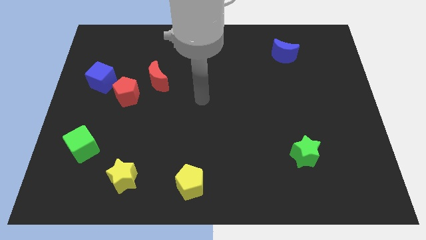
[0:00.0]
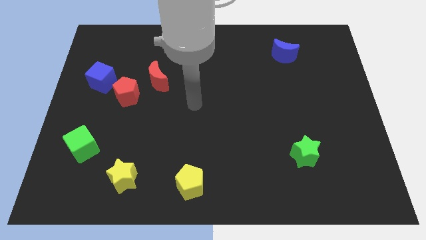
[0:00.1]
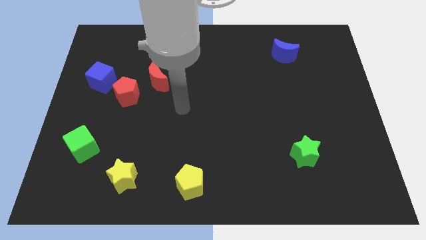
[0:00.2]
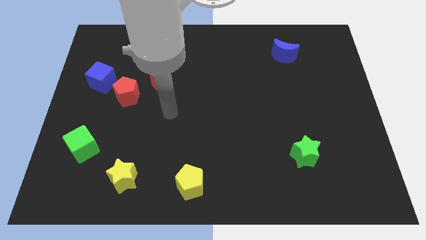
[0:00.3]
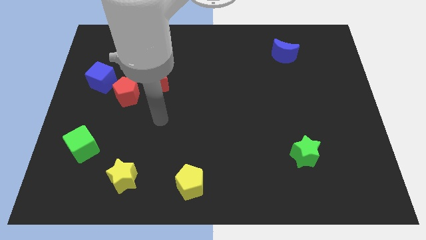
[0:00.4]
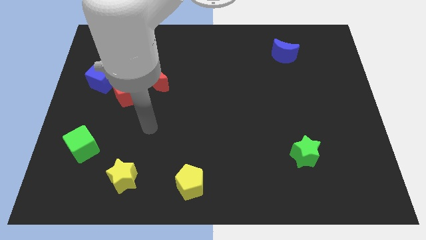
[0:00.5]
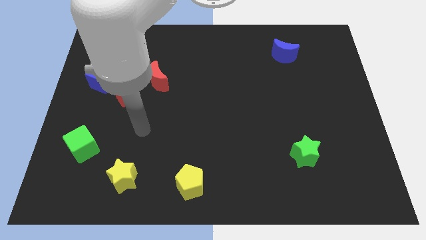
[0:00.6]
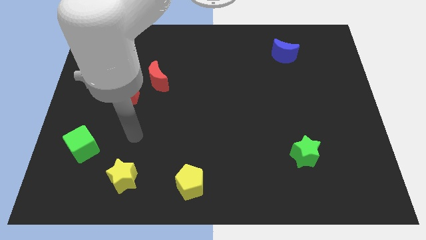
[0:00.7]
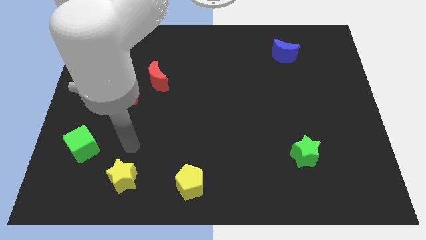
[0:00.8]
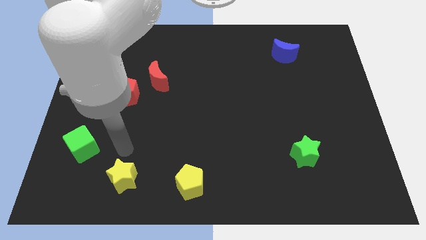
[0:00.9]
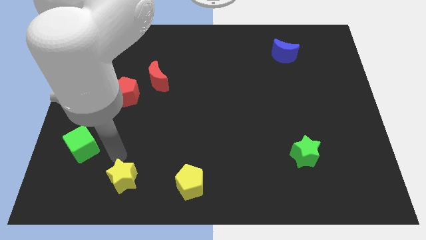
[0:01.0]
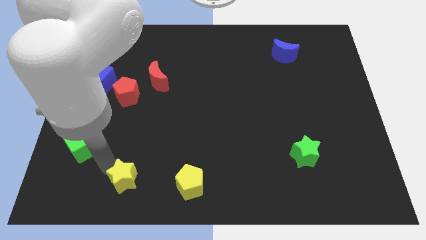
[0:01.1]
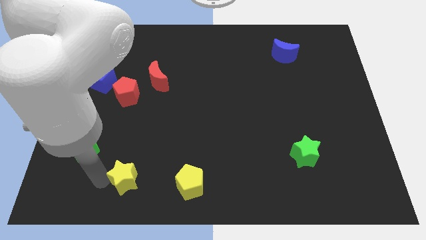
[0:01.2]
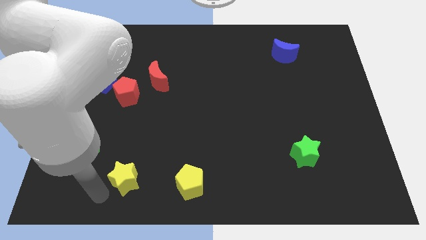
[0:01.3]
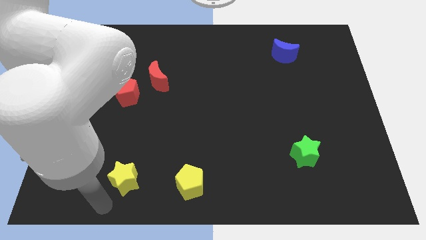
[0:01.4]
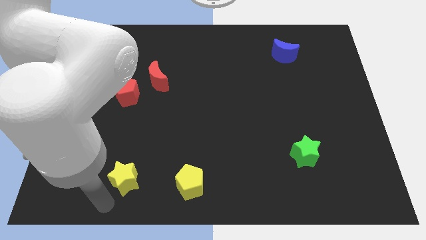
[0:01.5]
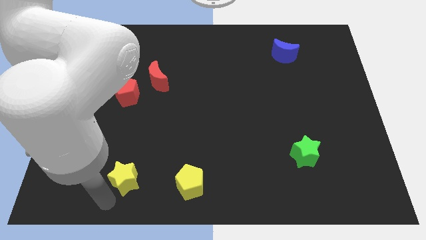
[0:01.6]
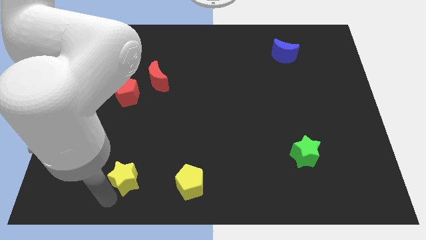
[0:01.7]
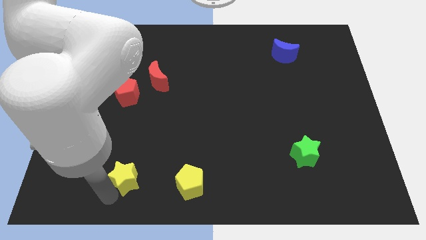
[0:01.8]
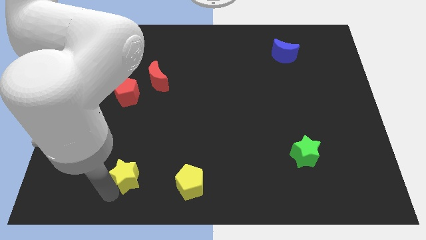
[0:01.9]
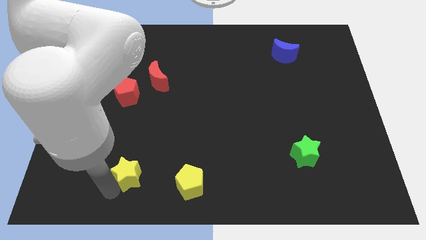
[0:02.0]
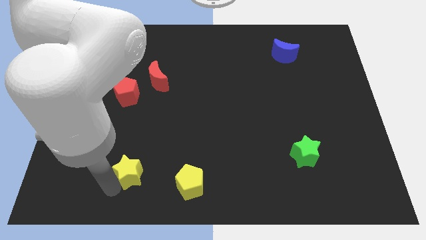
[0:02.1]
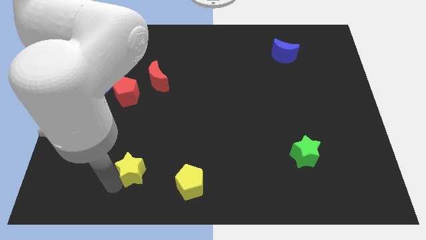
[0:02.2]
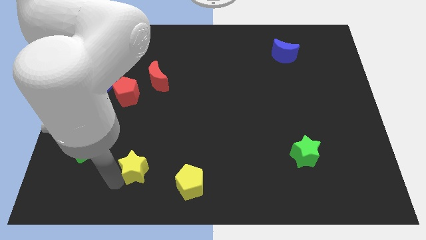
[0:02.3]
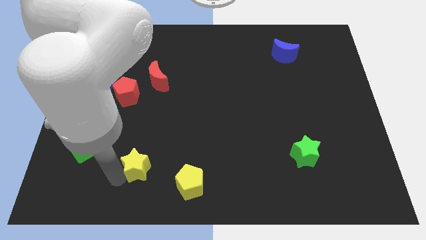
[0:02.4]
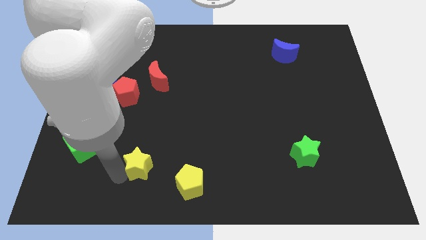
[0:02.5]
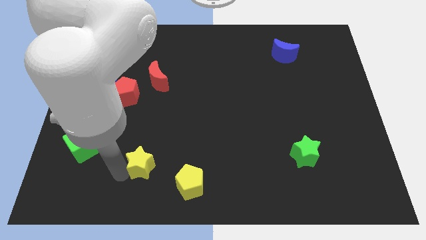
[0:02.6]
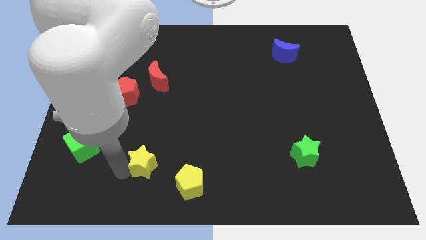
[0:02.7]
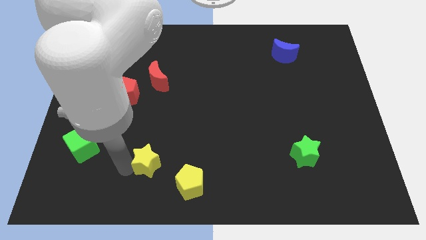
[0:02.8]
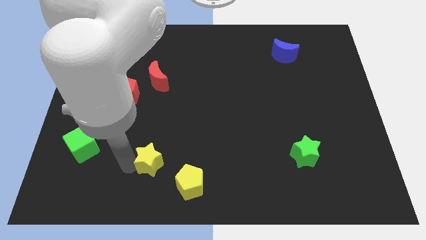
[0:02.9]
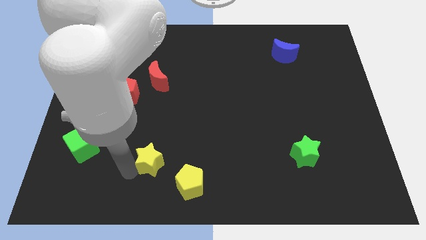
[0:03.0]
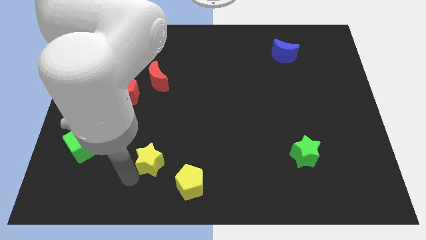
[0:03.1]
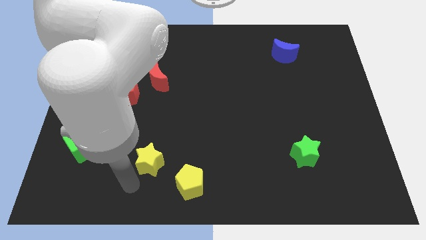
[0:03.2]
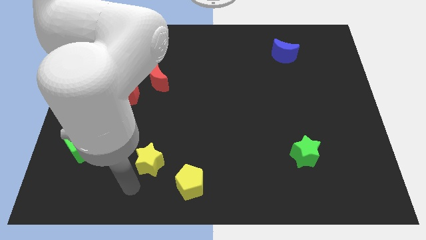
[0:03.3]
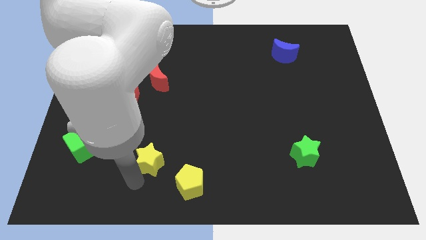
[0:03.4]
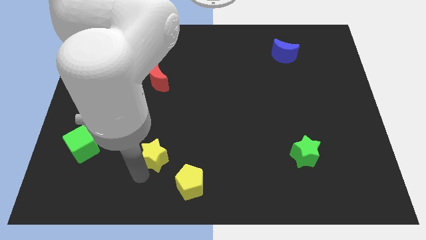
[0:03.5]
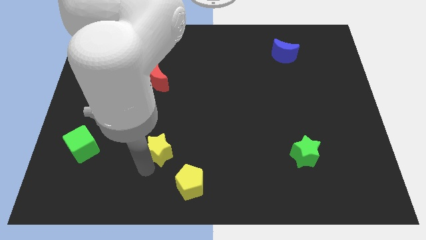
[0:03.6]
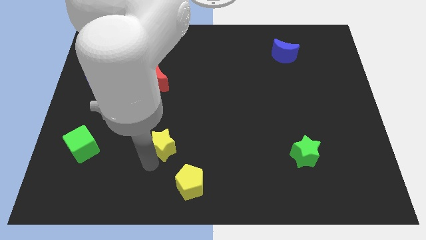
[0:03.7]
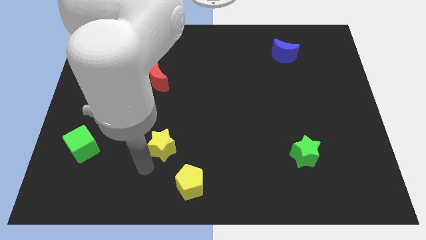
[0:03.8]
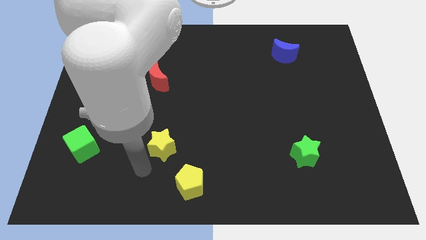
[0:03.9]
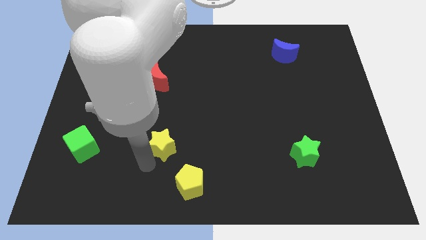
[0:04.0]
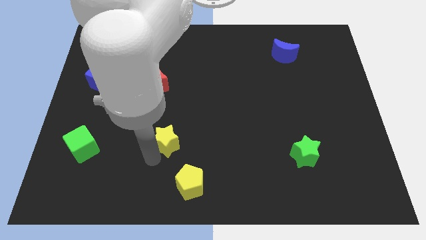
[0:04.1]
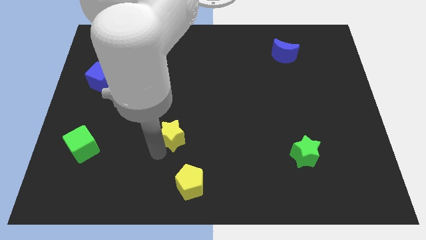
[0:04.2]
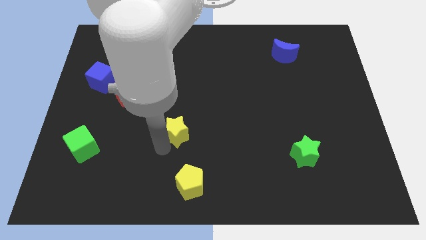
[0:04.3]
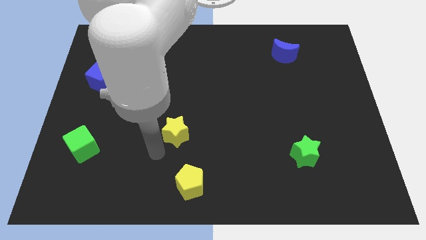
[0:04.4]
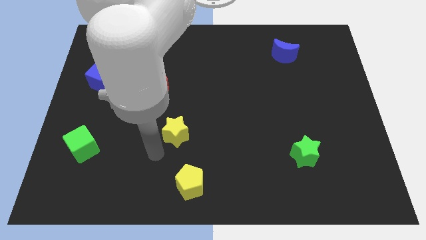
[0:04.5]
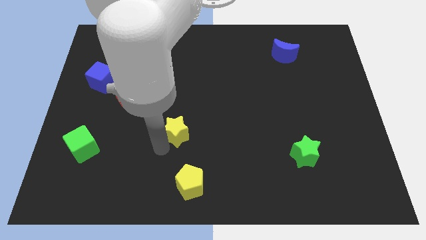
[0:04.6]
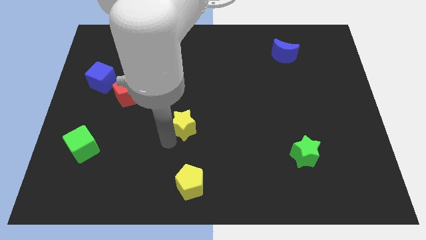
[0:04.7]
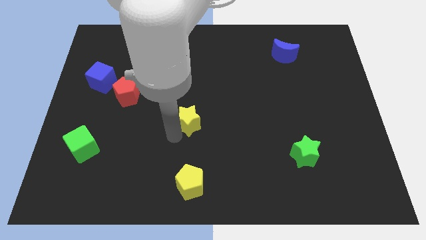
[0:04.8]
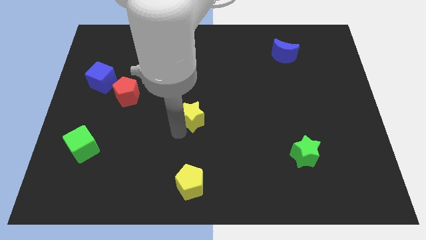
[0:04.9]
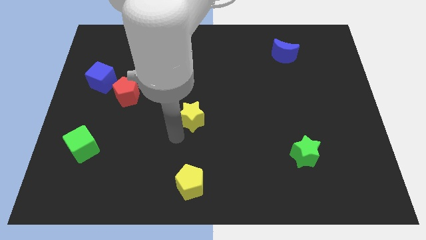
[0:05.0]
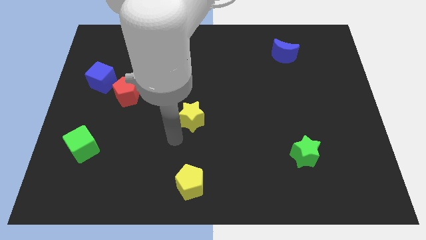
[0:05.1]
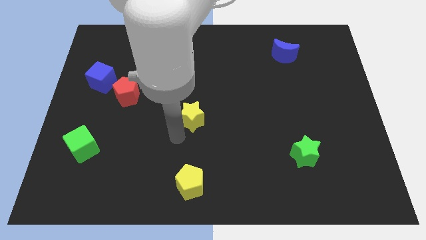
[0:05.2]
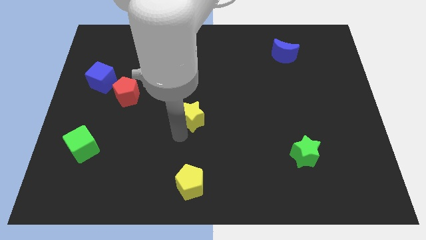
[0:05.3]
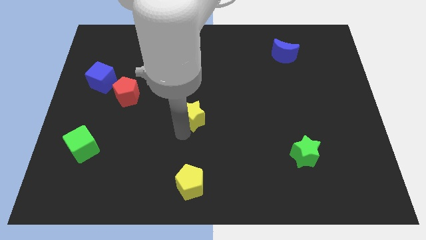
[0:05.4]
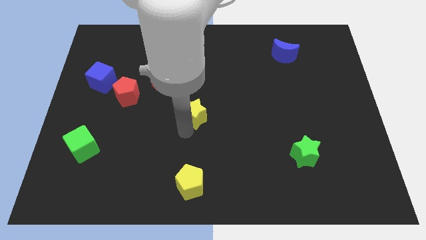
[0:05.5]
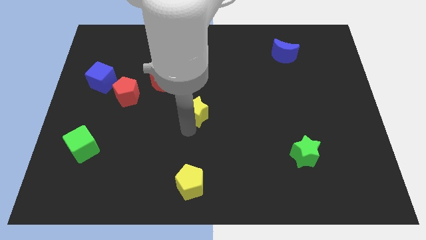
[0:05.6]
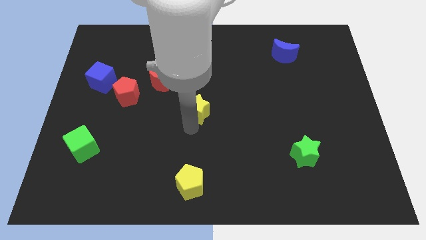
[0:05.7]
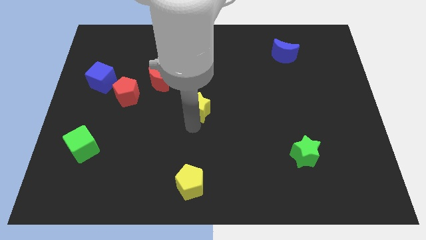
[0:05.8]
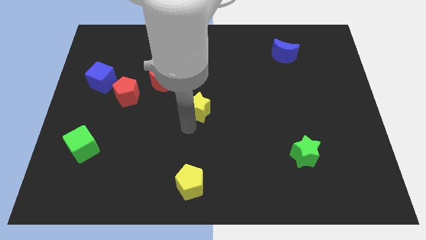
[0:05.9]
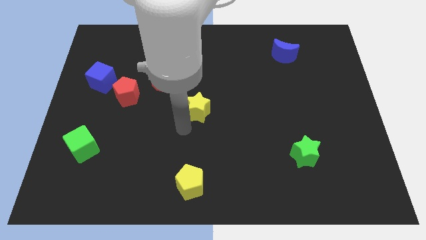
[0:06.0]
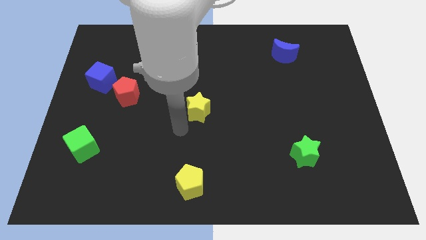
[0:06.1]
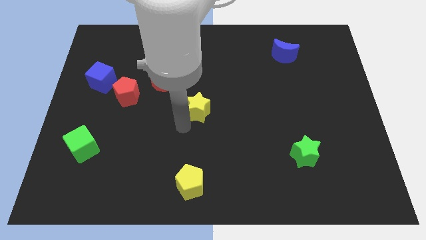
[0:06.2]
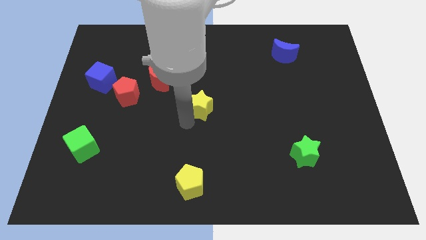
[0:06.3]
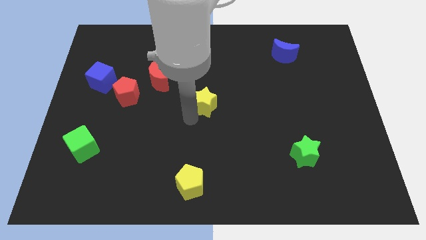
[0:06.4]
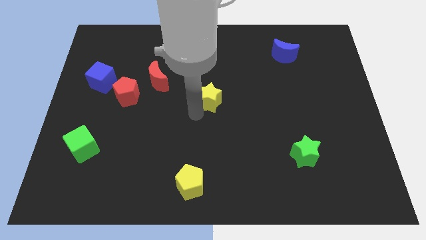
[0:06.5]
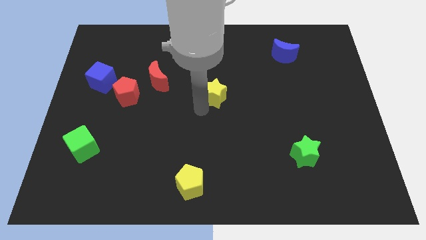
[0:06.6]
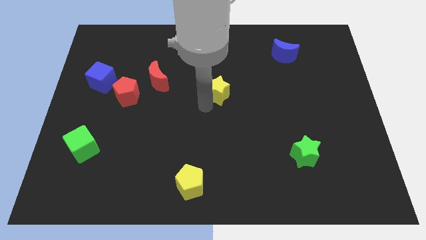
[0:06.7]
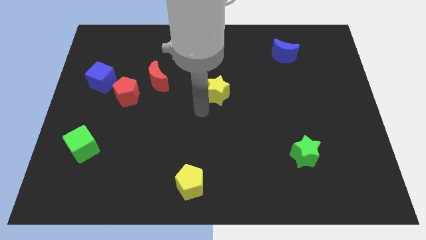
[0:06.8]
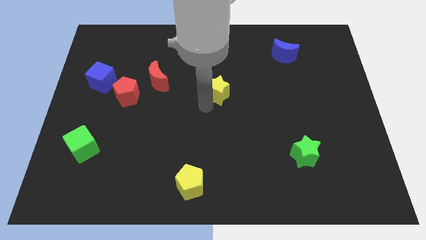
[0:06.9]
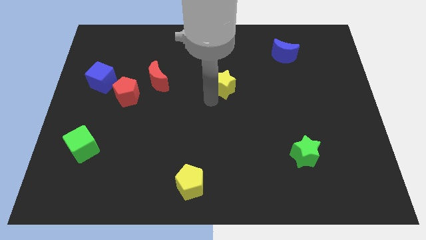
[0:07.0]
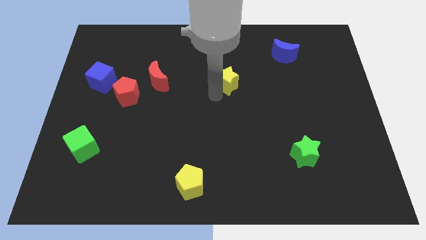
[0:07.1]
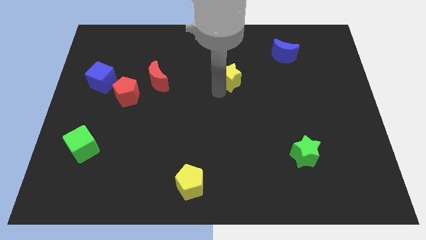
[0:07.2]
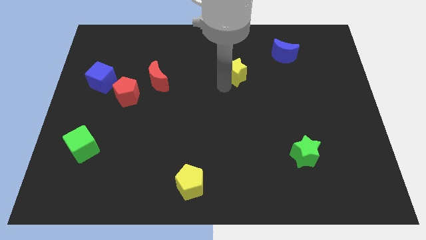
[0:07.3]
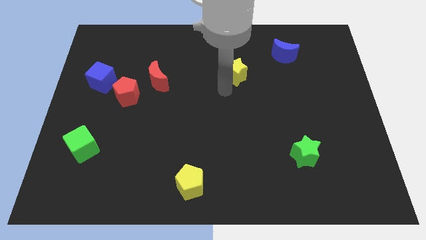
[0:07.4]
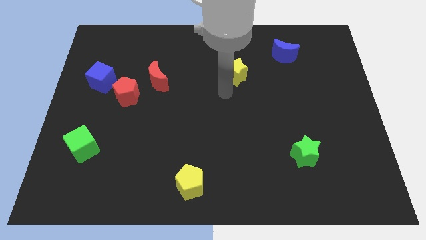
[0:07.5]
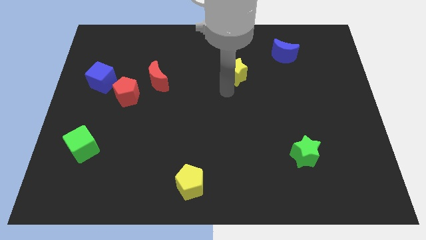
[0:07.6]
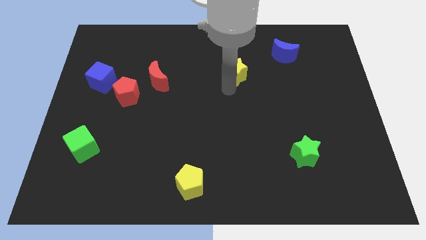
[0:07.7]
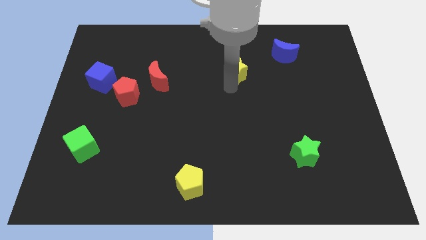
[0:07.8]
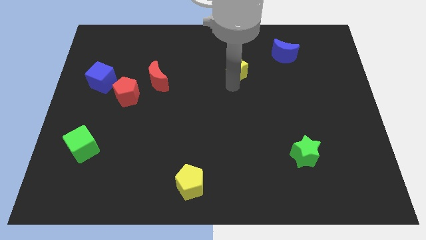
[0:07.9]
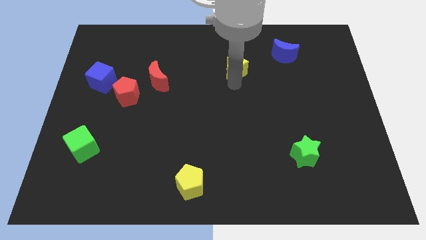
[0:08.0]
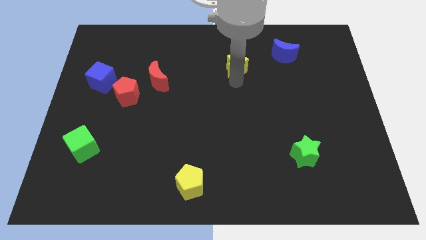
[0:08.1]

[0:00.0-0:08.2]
push the yellow star just left of the blue moon
